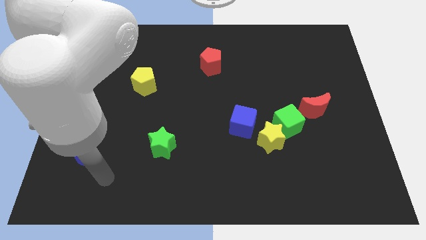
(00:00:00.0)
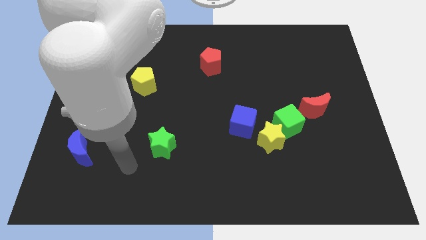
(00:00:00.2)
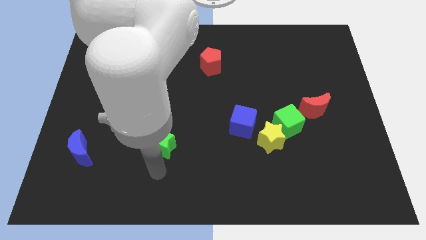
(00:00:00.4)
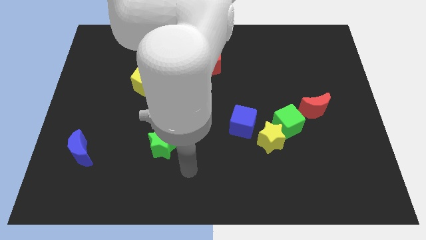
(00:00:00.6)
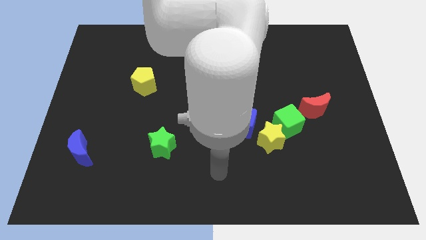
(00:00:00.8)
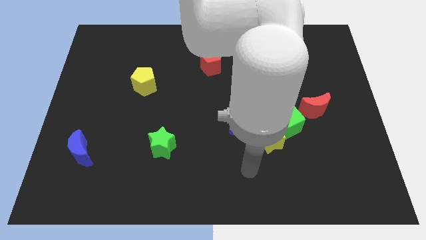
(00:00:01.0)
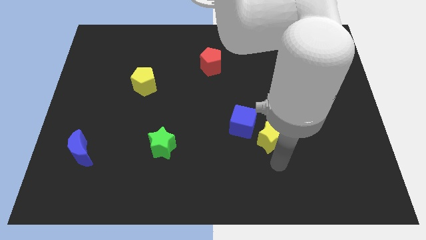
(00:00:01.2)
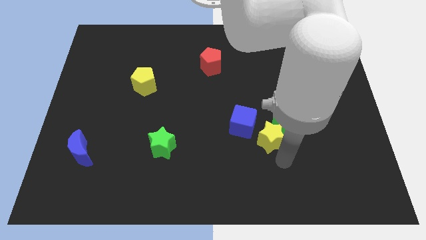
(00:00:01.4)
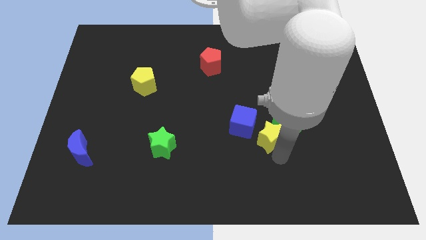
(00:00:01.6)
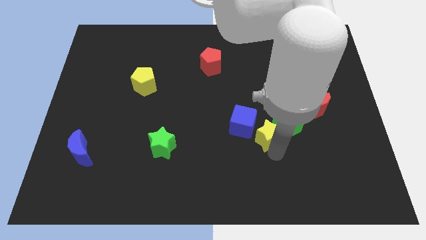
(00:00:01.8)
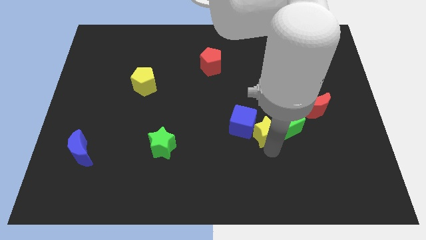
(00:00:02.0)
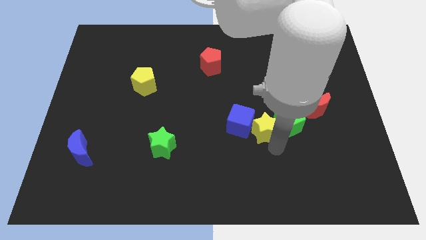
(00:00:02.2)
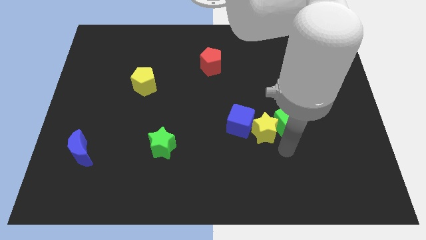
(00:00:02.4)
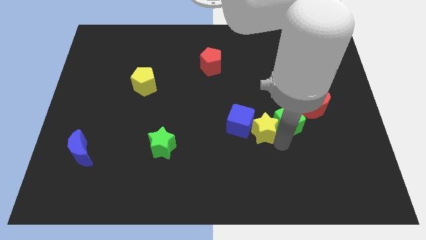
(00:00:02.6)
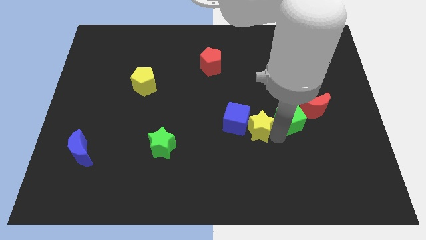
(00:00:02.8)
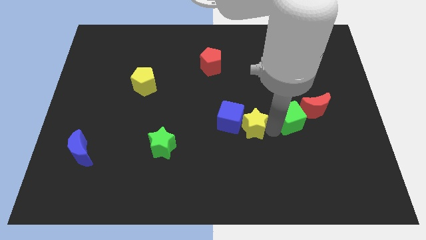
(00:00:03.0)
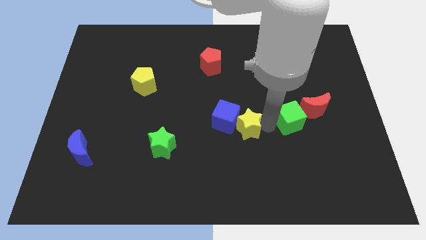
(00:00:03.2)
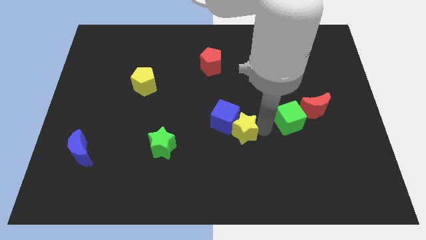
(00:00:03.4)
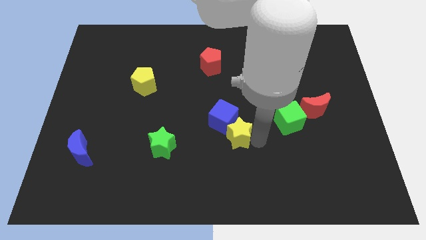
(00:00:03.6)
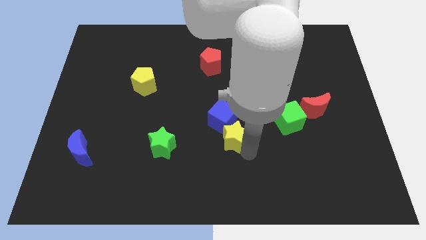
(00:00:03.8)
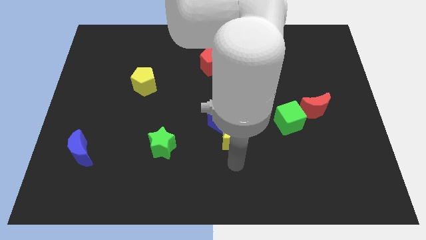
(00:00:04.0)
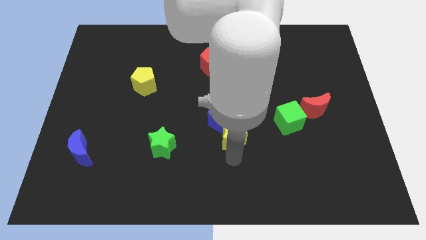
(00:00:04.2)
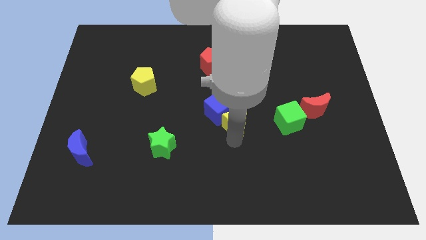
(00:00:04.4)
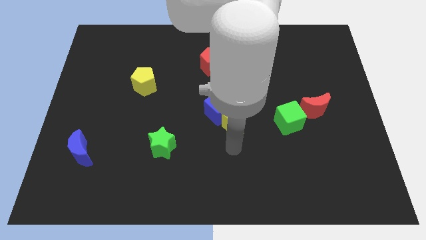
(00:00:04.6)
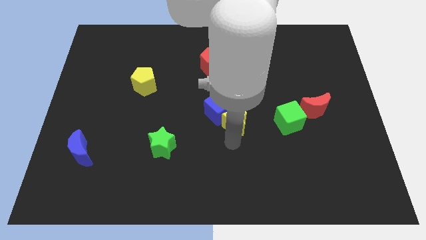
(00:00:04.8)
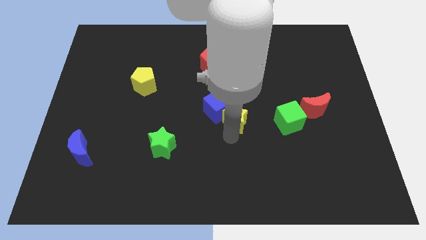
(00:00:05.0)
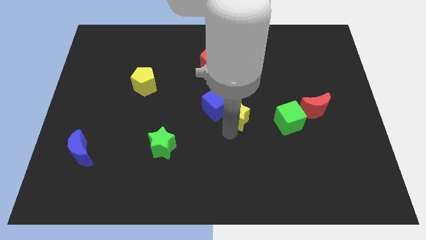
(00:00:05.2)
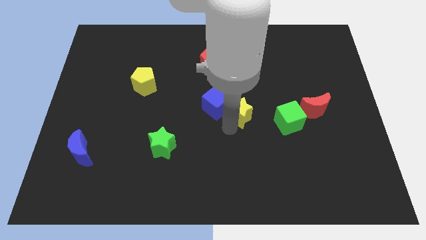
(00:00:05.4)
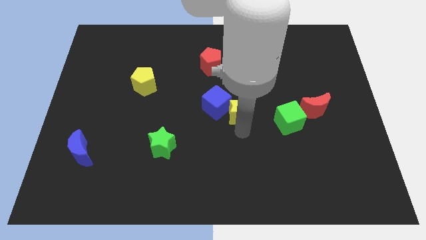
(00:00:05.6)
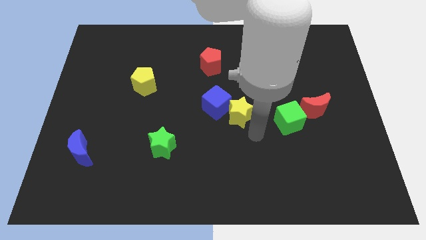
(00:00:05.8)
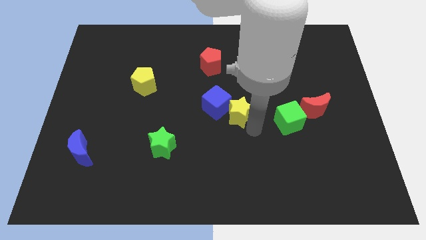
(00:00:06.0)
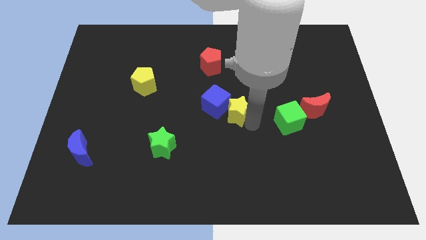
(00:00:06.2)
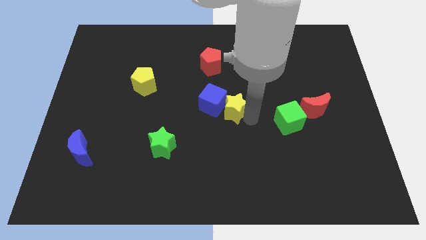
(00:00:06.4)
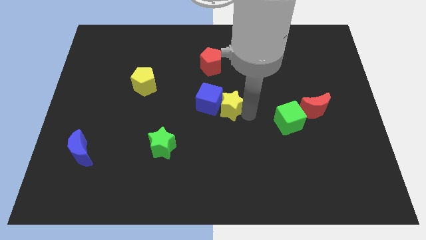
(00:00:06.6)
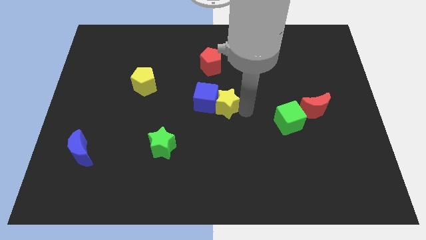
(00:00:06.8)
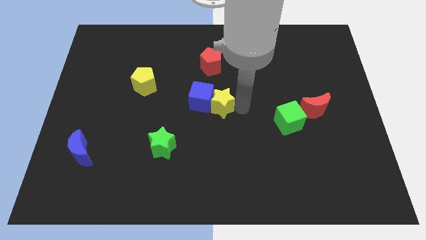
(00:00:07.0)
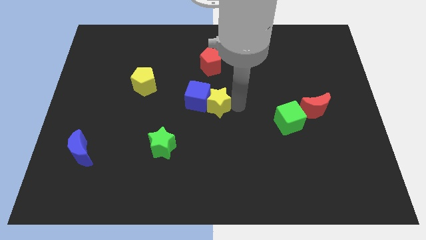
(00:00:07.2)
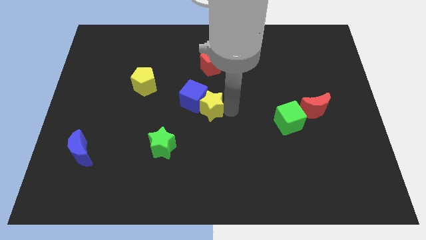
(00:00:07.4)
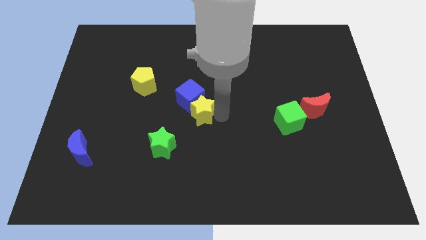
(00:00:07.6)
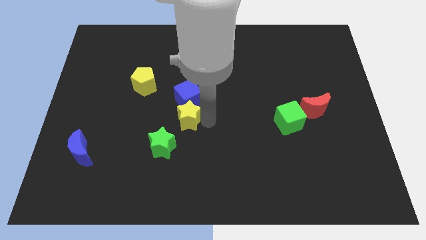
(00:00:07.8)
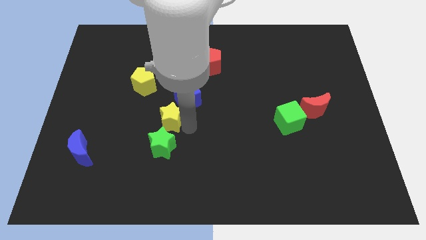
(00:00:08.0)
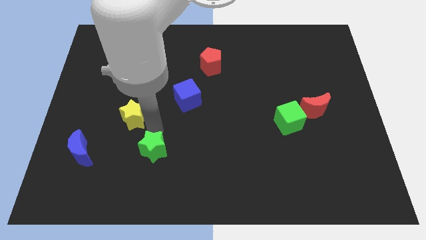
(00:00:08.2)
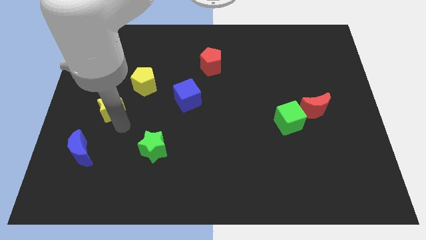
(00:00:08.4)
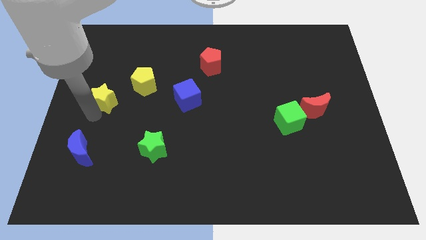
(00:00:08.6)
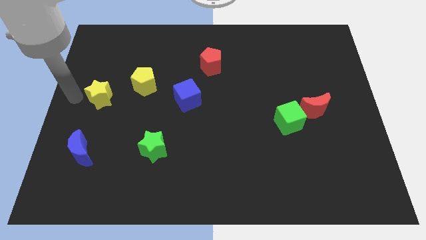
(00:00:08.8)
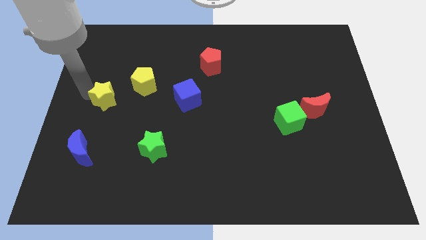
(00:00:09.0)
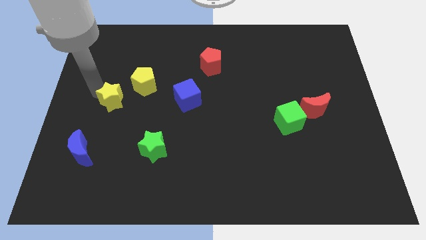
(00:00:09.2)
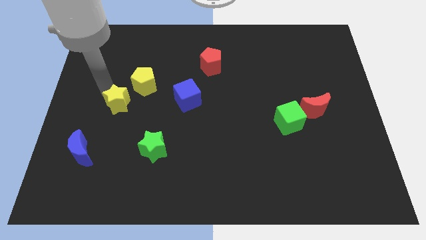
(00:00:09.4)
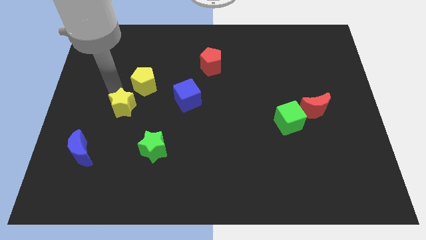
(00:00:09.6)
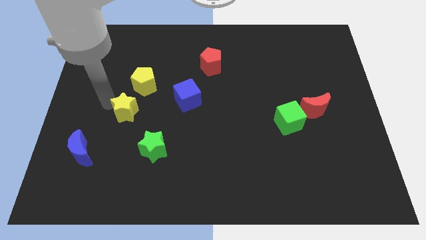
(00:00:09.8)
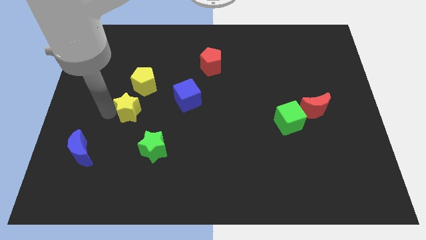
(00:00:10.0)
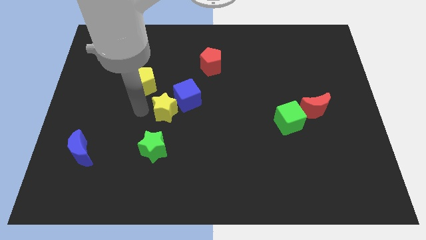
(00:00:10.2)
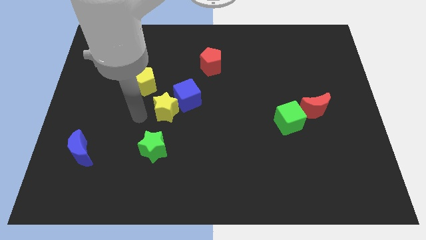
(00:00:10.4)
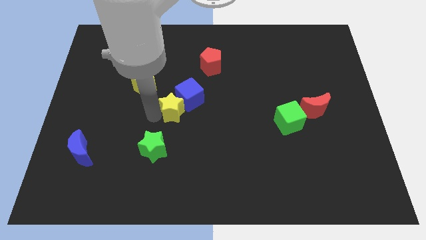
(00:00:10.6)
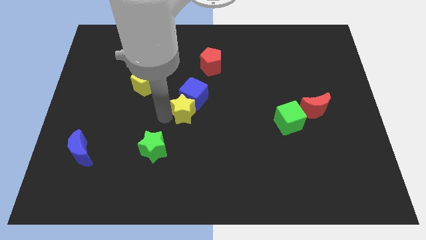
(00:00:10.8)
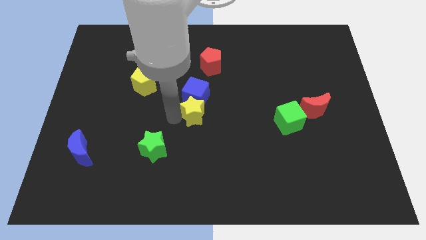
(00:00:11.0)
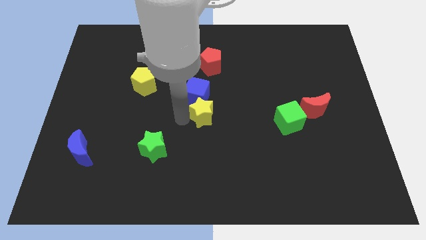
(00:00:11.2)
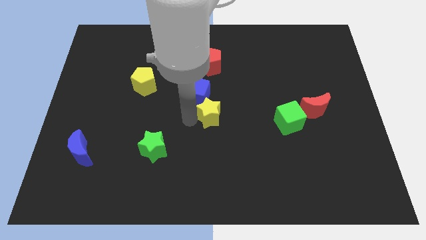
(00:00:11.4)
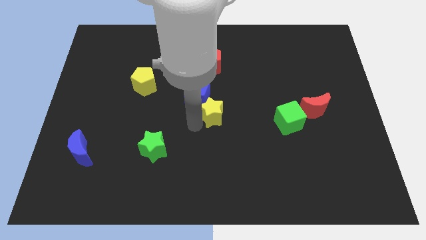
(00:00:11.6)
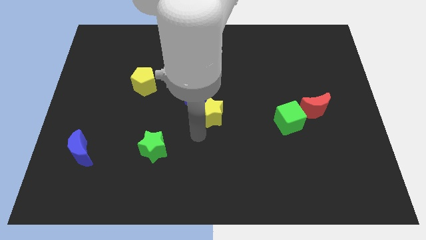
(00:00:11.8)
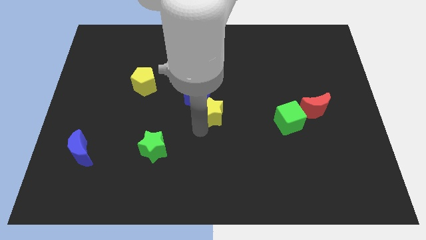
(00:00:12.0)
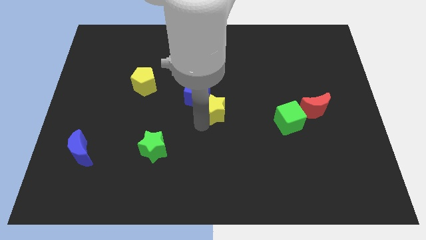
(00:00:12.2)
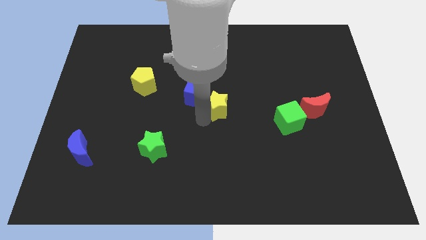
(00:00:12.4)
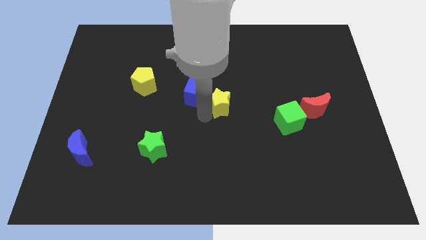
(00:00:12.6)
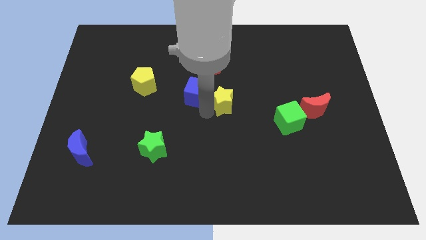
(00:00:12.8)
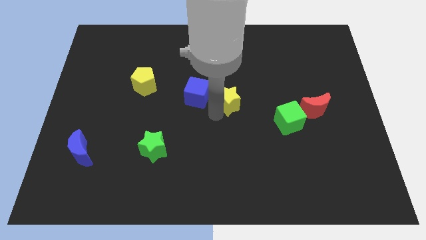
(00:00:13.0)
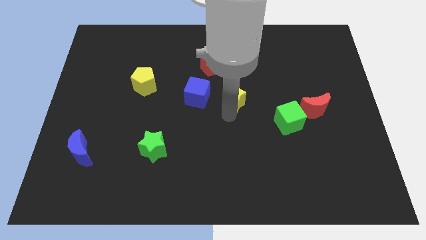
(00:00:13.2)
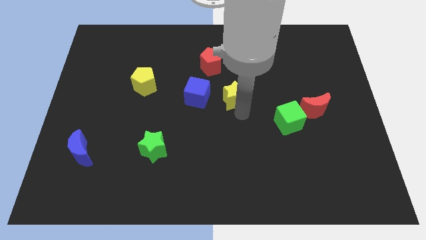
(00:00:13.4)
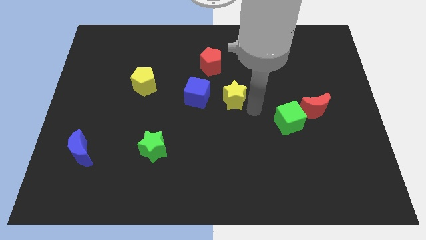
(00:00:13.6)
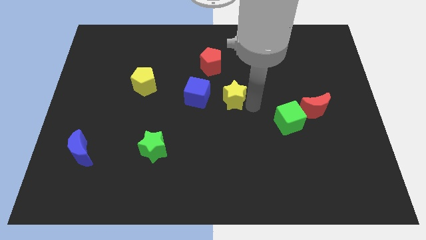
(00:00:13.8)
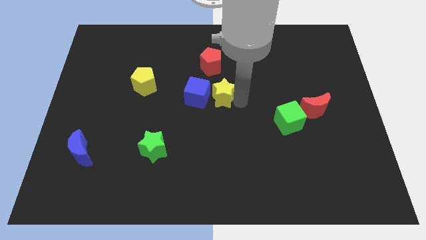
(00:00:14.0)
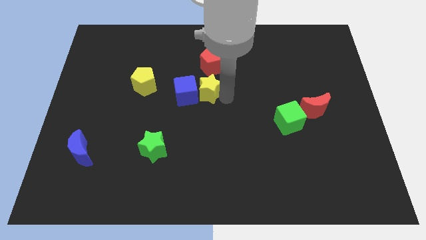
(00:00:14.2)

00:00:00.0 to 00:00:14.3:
put the yellow star right of the yellow pentagon

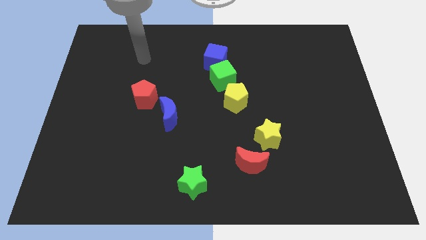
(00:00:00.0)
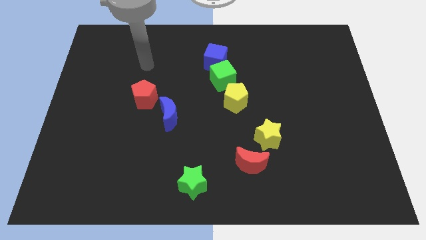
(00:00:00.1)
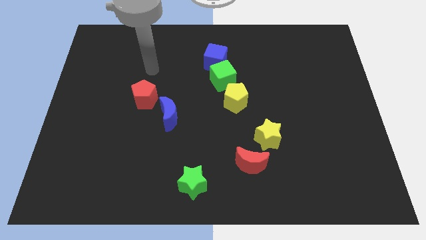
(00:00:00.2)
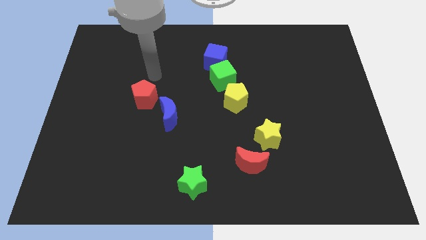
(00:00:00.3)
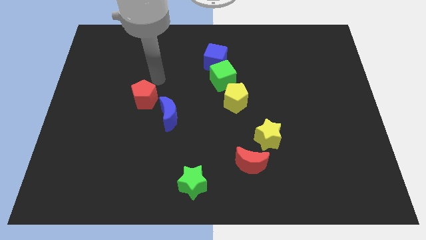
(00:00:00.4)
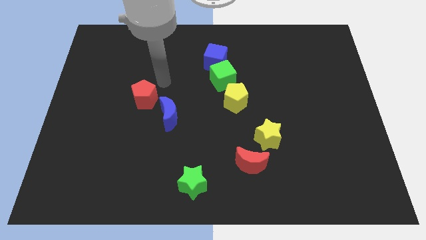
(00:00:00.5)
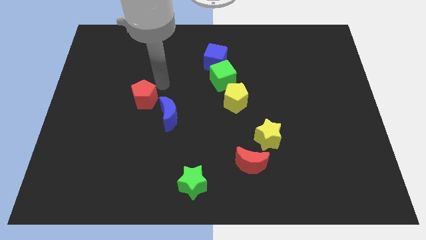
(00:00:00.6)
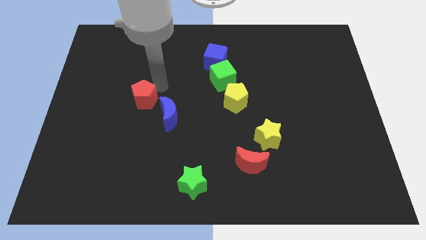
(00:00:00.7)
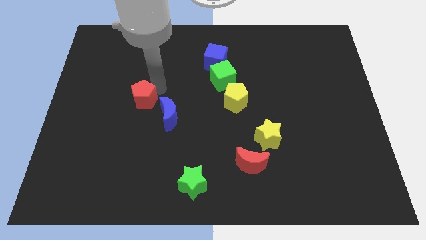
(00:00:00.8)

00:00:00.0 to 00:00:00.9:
push the red pentagon to the left of the blue moon

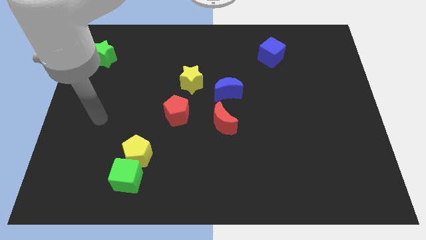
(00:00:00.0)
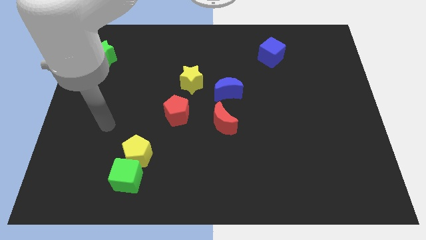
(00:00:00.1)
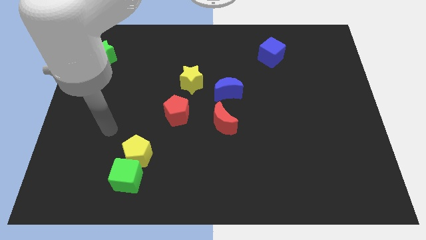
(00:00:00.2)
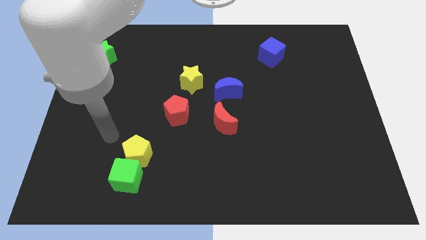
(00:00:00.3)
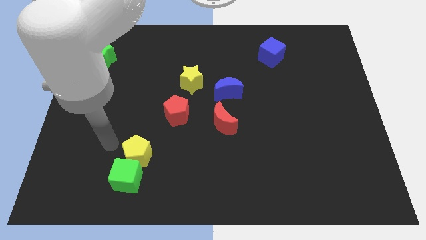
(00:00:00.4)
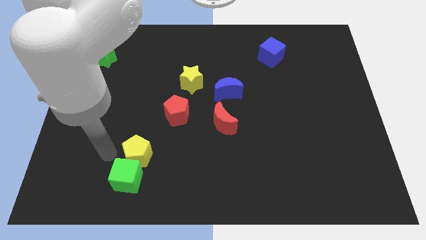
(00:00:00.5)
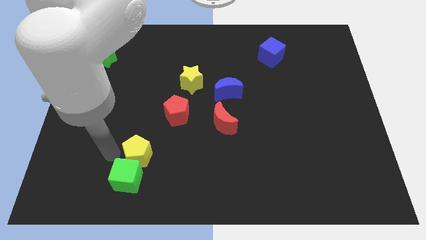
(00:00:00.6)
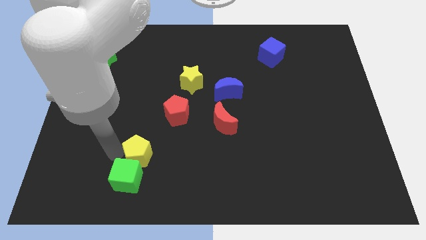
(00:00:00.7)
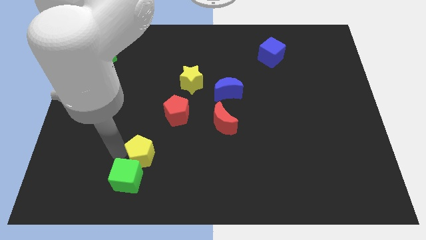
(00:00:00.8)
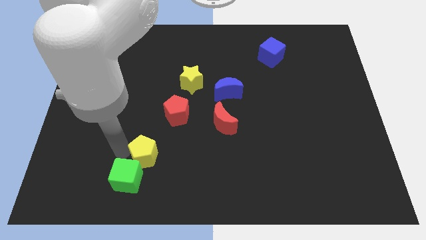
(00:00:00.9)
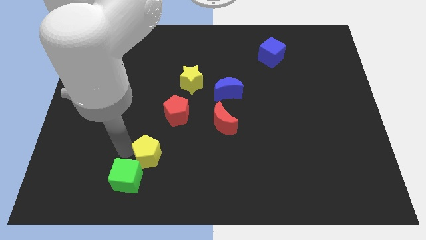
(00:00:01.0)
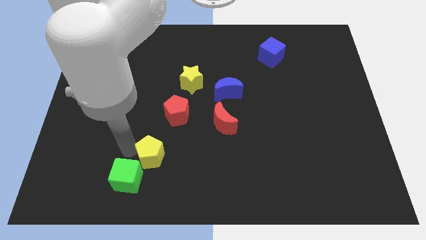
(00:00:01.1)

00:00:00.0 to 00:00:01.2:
put the yellow pentagon to the bottom of the red pentagon
